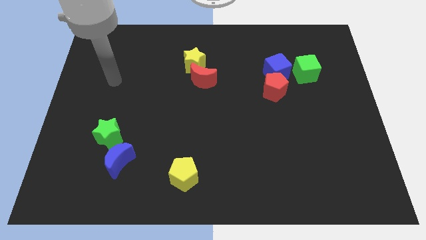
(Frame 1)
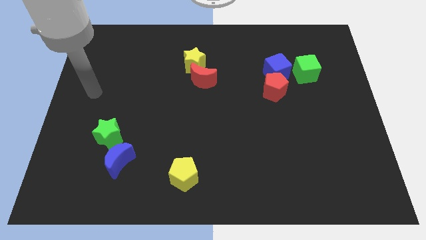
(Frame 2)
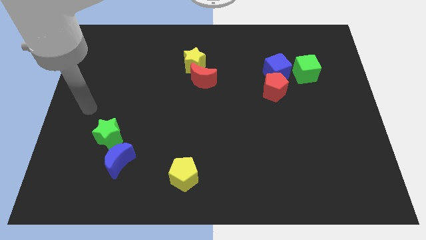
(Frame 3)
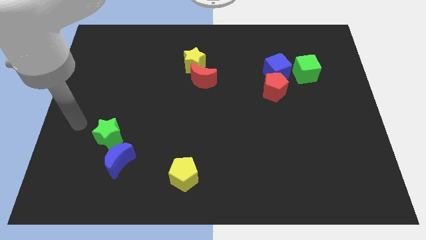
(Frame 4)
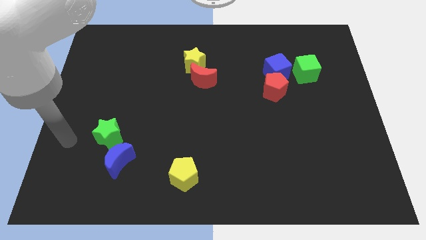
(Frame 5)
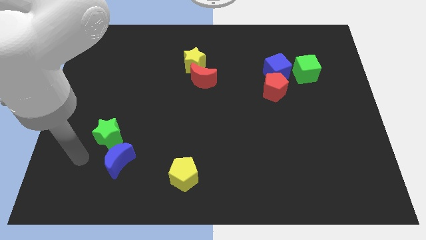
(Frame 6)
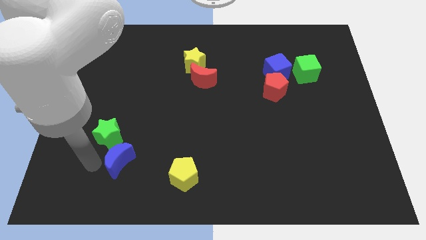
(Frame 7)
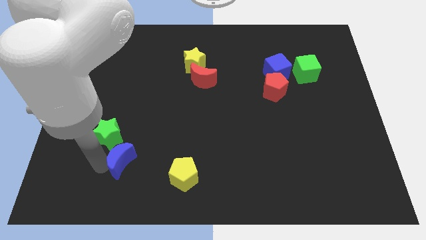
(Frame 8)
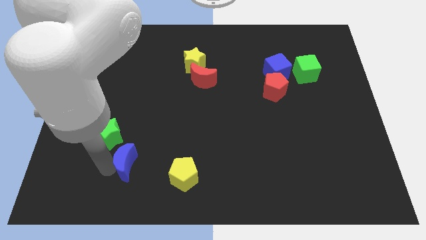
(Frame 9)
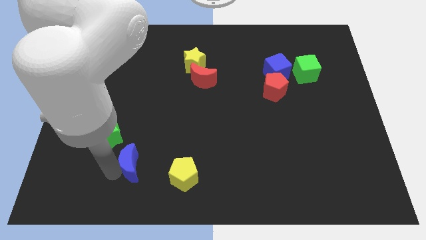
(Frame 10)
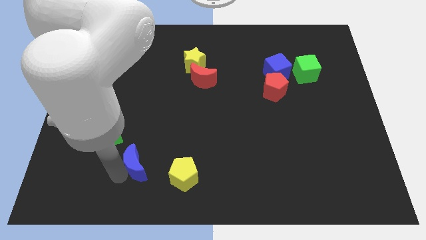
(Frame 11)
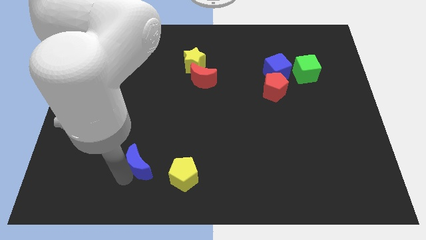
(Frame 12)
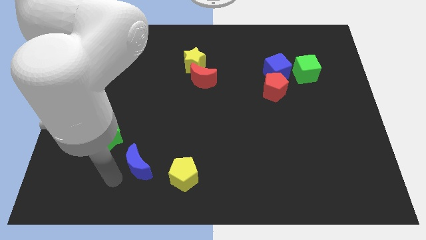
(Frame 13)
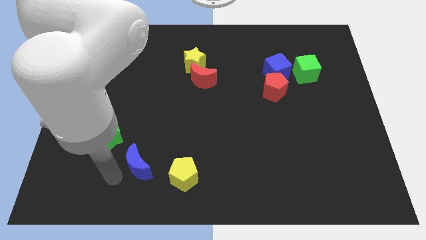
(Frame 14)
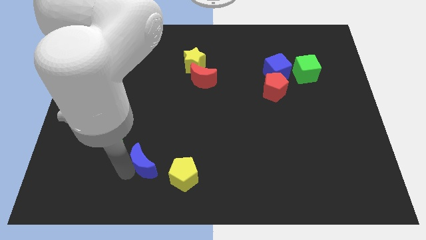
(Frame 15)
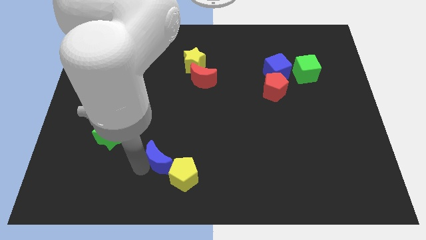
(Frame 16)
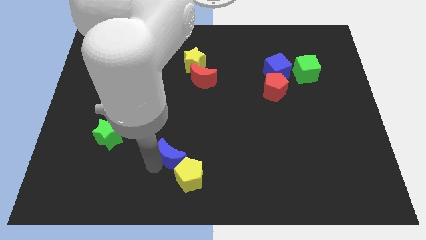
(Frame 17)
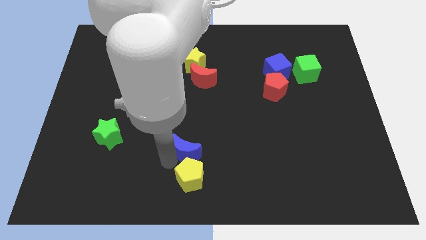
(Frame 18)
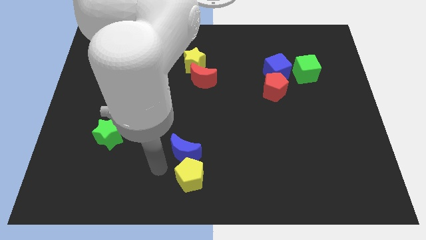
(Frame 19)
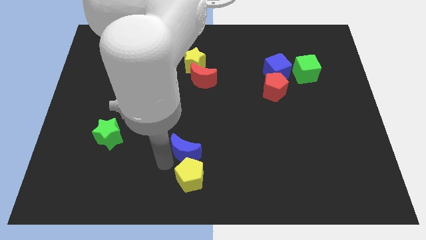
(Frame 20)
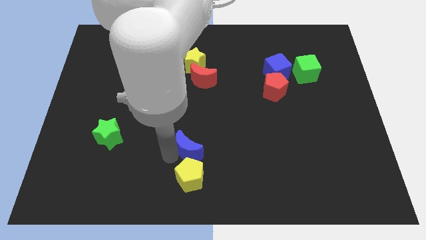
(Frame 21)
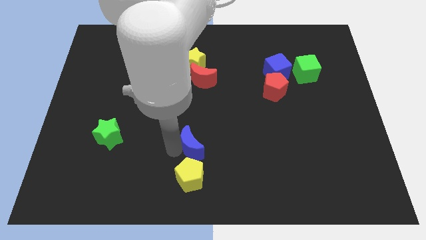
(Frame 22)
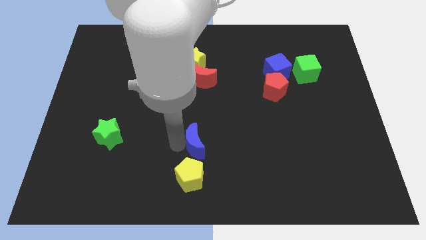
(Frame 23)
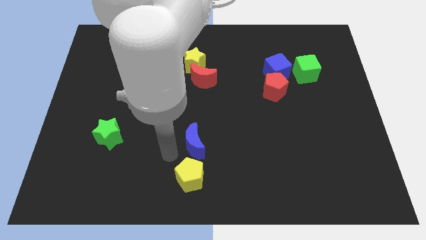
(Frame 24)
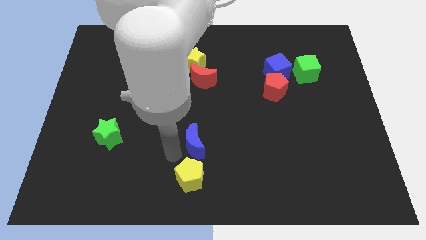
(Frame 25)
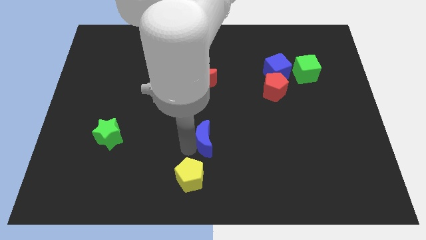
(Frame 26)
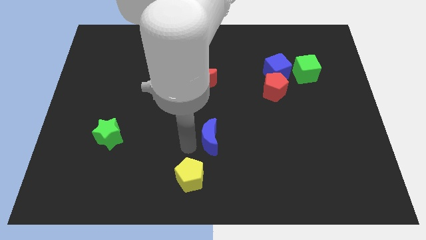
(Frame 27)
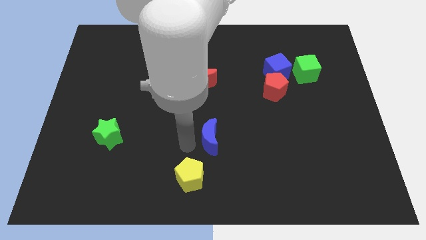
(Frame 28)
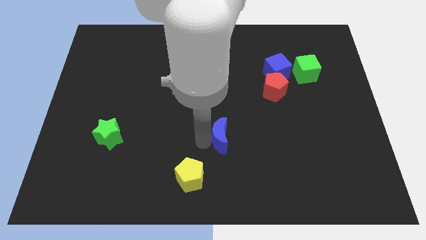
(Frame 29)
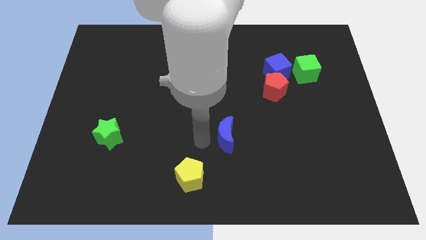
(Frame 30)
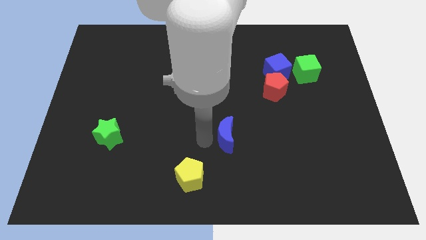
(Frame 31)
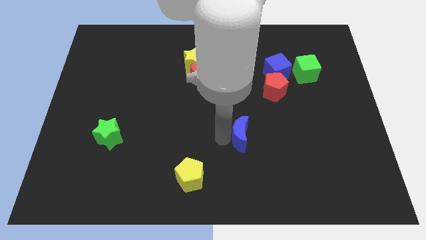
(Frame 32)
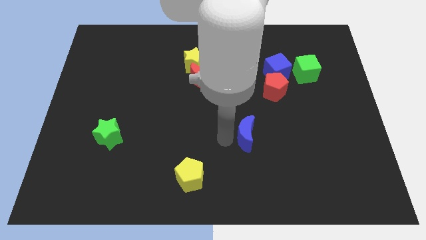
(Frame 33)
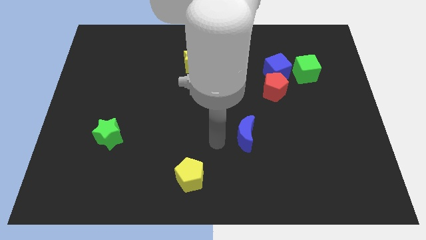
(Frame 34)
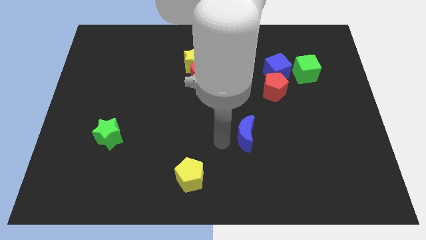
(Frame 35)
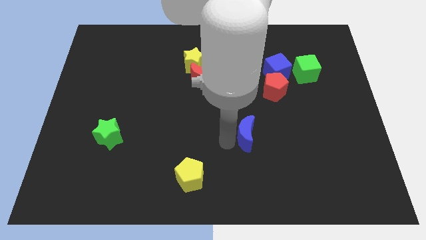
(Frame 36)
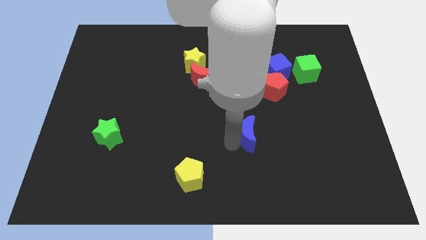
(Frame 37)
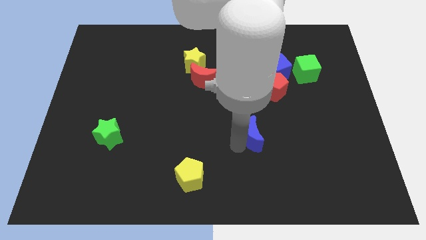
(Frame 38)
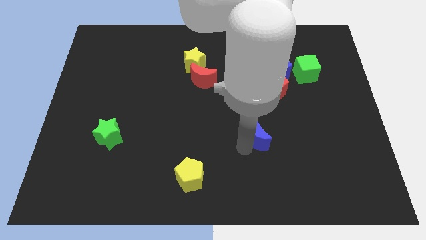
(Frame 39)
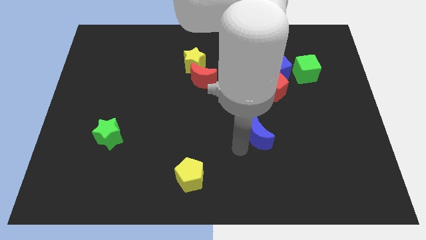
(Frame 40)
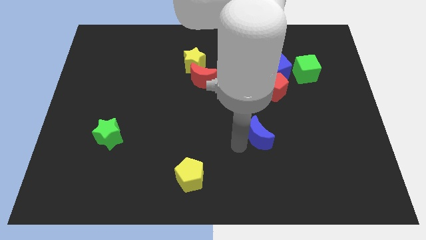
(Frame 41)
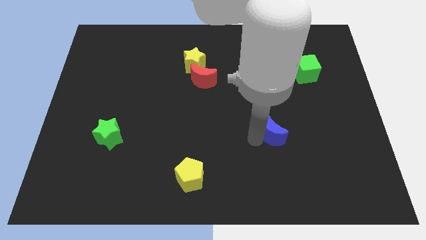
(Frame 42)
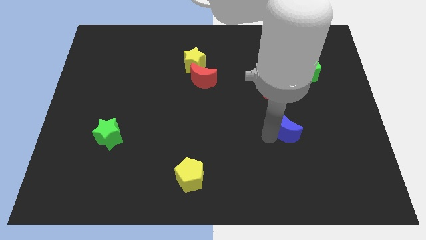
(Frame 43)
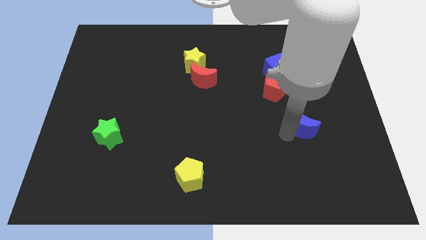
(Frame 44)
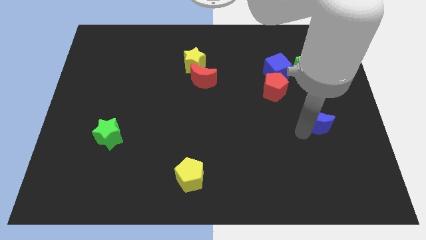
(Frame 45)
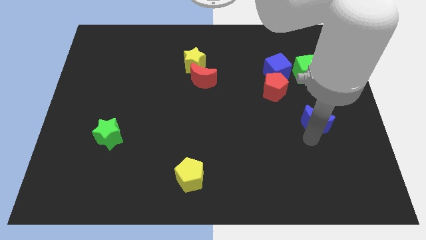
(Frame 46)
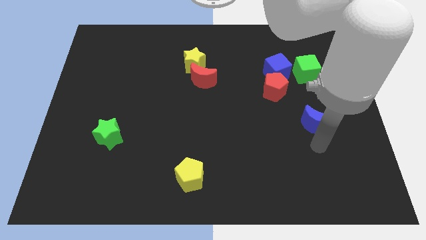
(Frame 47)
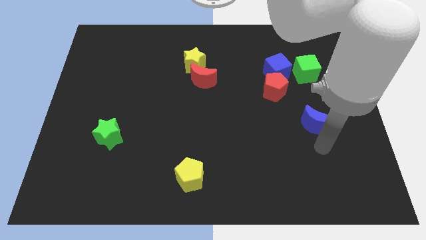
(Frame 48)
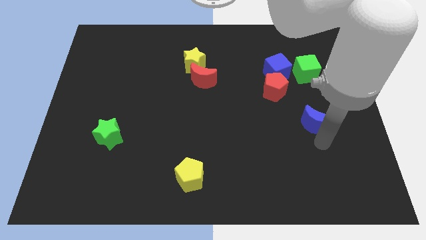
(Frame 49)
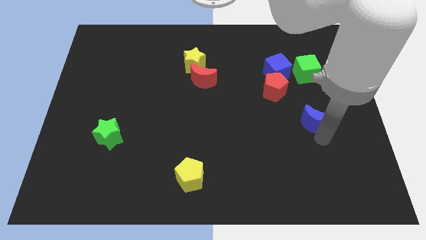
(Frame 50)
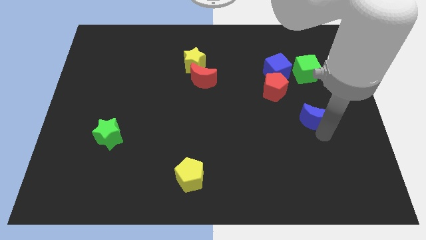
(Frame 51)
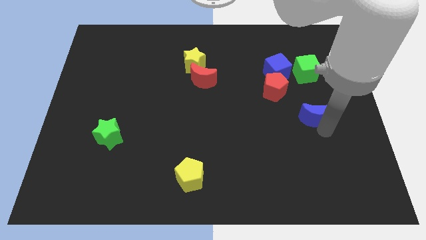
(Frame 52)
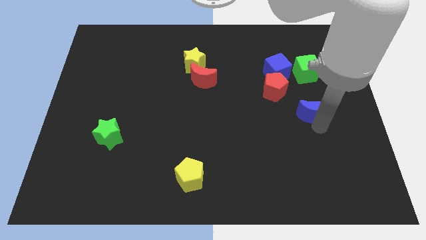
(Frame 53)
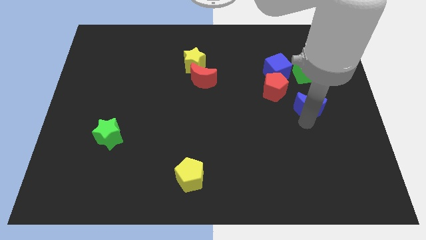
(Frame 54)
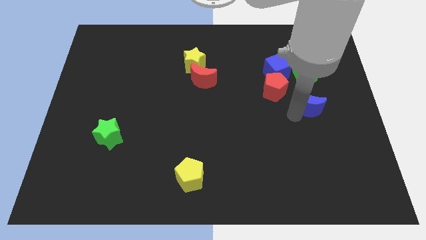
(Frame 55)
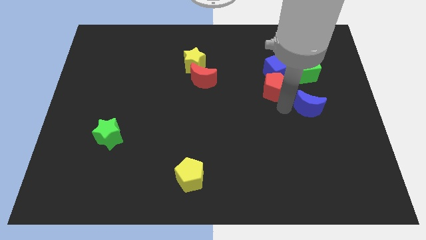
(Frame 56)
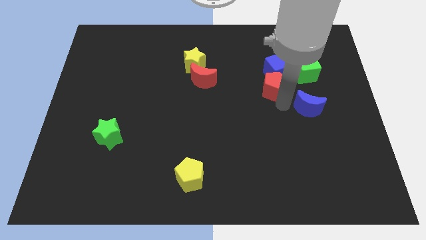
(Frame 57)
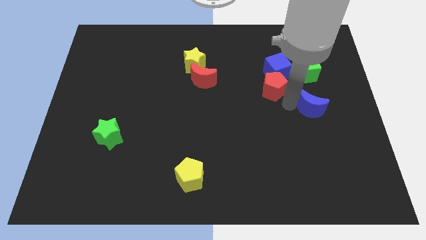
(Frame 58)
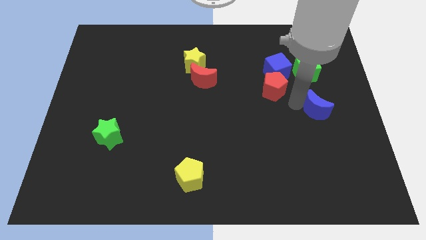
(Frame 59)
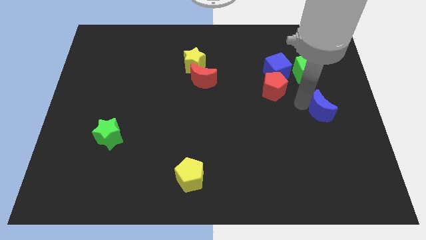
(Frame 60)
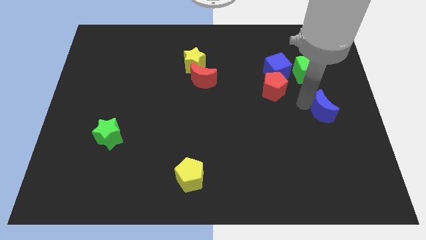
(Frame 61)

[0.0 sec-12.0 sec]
put the blue moon to the right side
